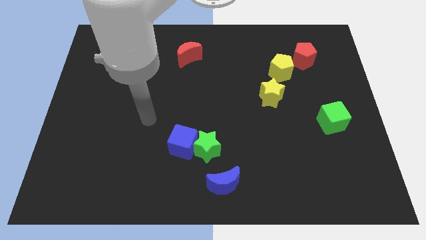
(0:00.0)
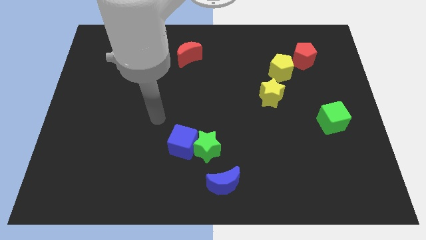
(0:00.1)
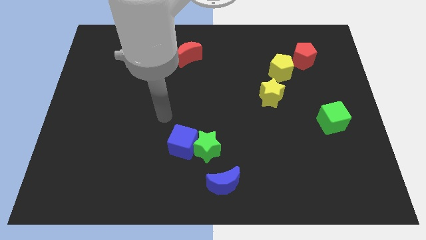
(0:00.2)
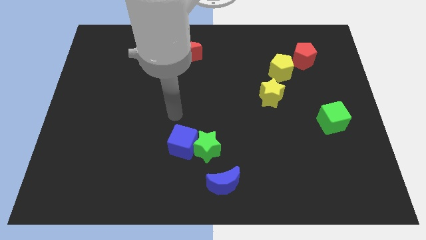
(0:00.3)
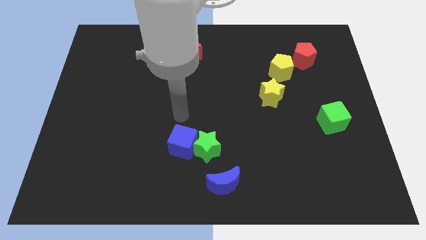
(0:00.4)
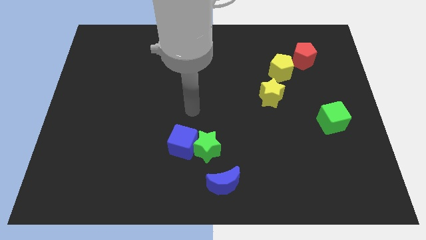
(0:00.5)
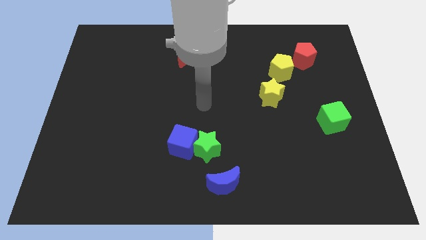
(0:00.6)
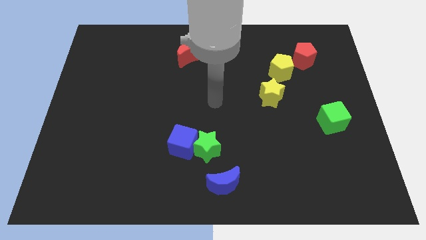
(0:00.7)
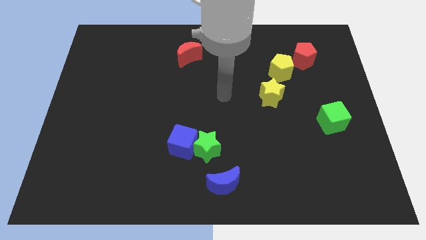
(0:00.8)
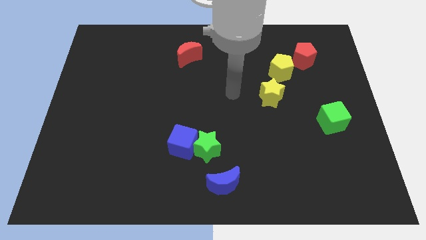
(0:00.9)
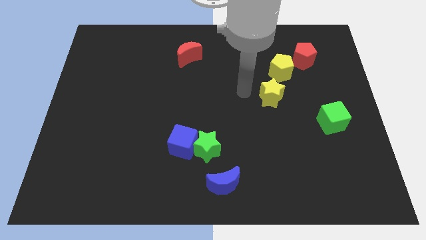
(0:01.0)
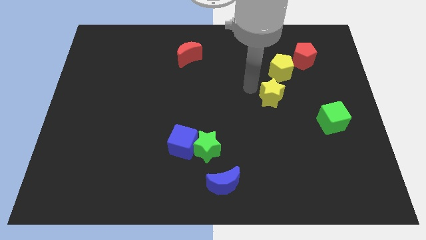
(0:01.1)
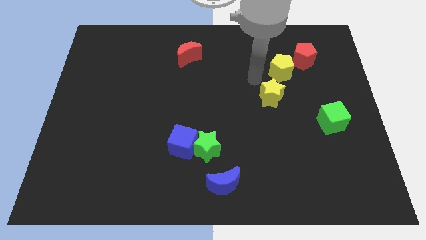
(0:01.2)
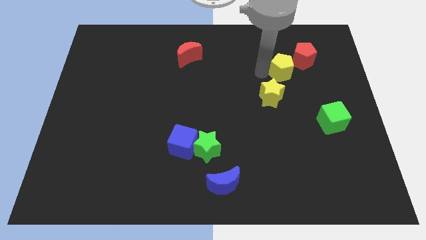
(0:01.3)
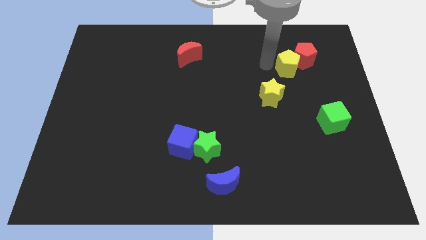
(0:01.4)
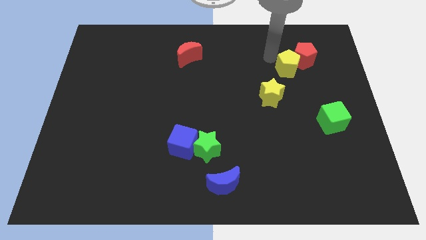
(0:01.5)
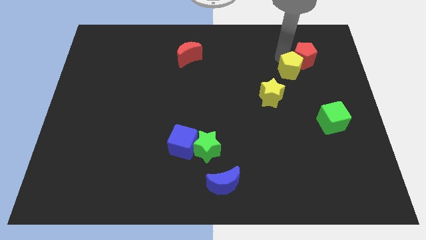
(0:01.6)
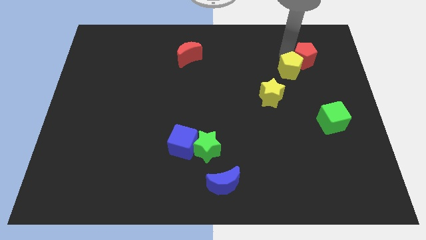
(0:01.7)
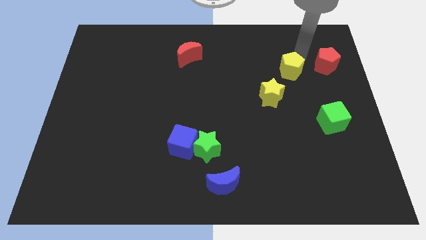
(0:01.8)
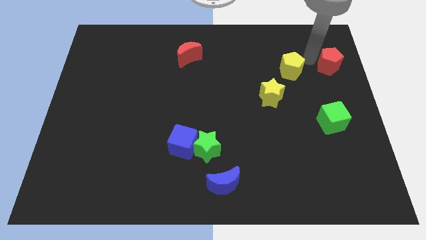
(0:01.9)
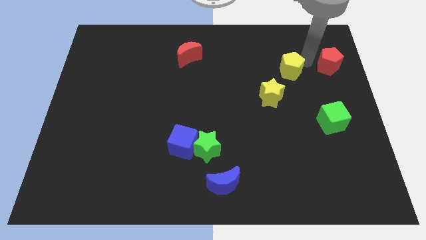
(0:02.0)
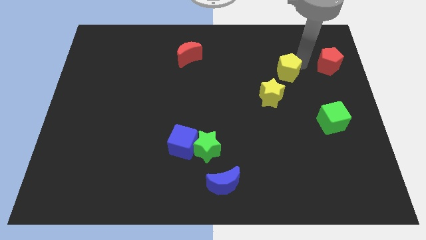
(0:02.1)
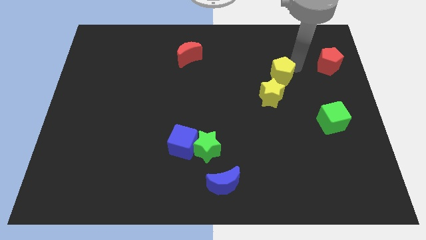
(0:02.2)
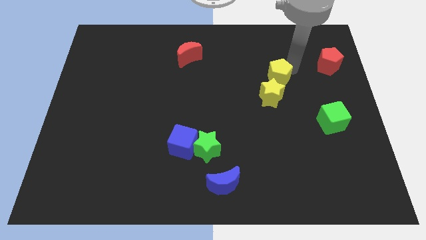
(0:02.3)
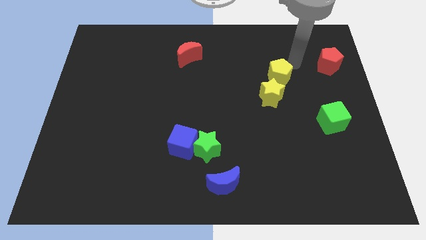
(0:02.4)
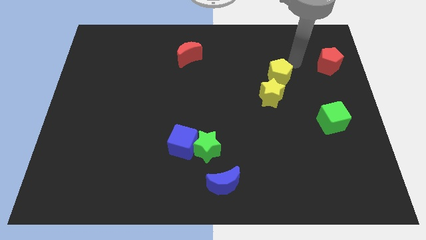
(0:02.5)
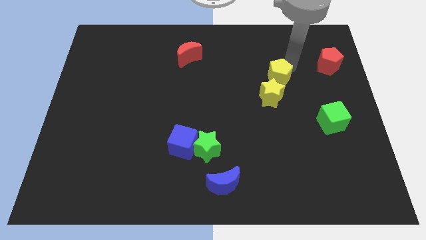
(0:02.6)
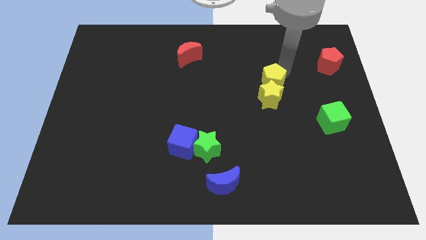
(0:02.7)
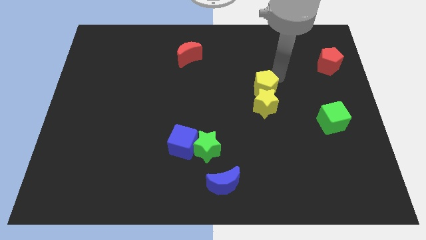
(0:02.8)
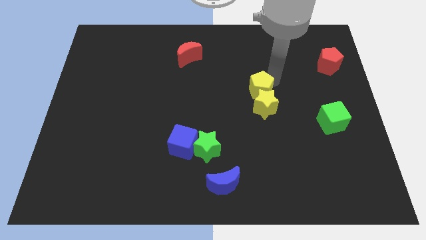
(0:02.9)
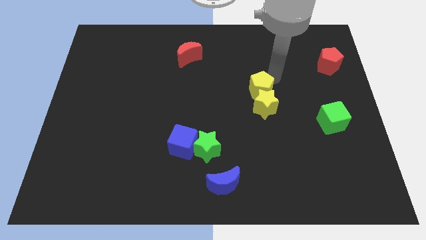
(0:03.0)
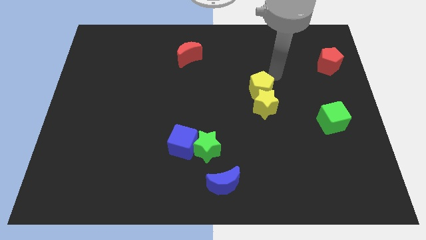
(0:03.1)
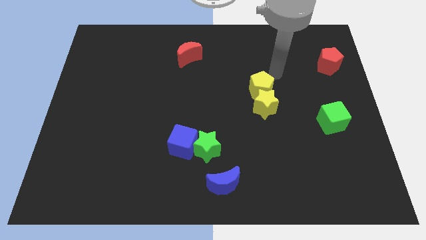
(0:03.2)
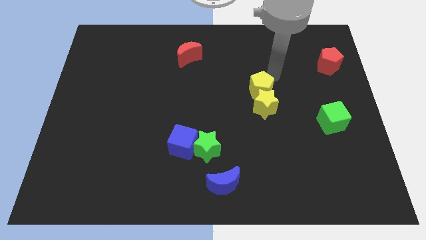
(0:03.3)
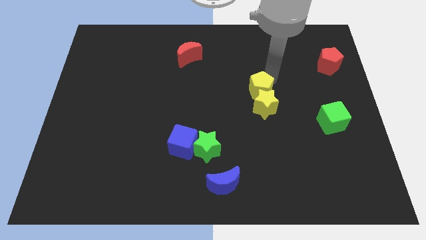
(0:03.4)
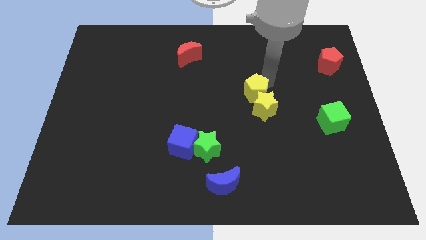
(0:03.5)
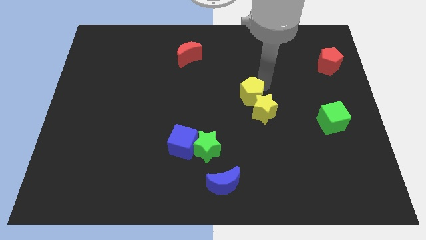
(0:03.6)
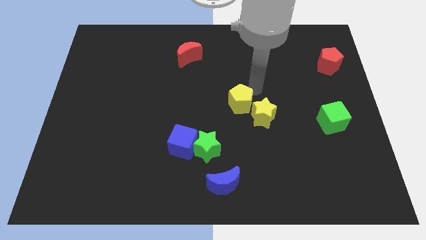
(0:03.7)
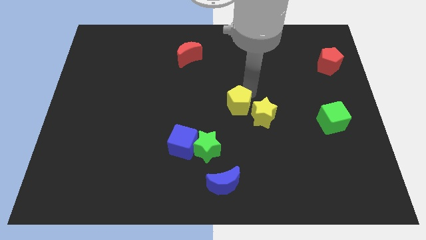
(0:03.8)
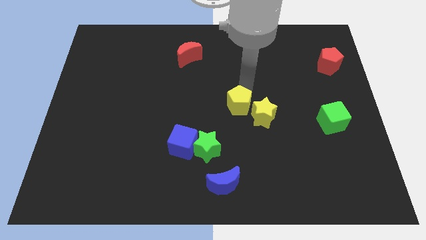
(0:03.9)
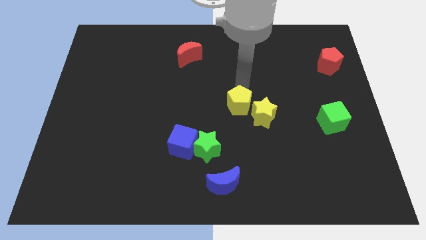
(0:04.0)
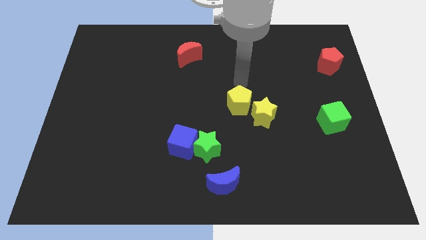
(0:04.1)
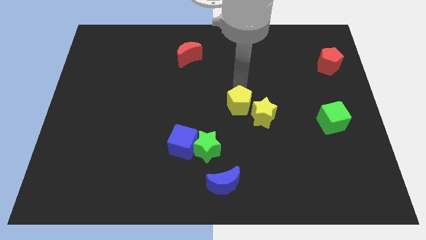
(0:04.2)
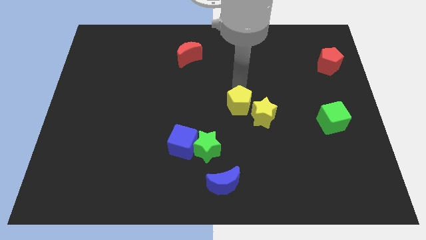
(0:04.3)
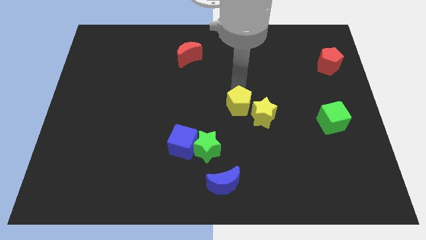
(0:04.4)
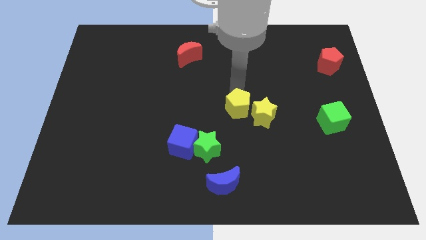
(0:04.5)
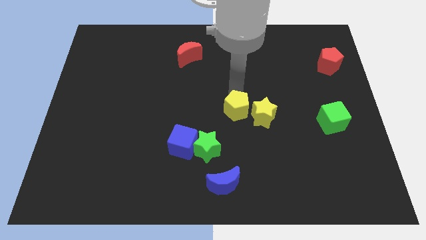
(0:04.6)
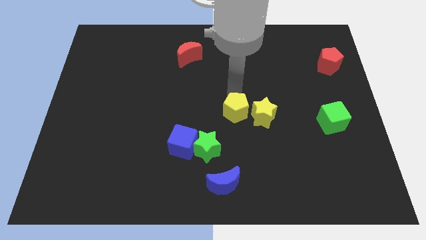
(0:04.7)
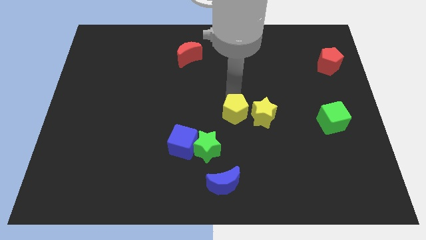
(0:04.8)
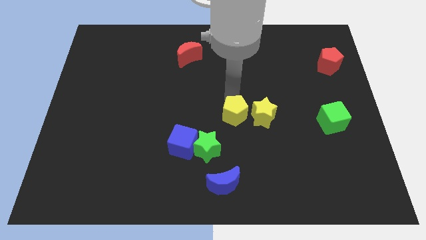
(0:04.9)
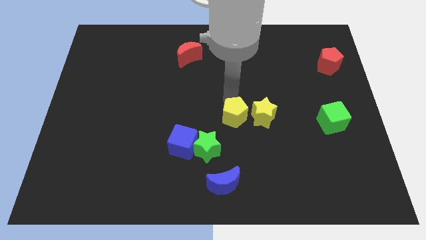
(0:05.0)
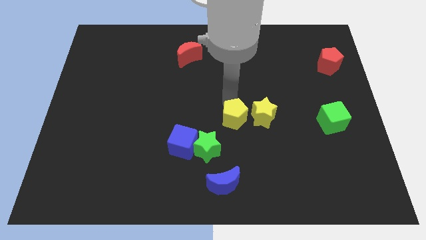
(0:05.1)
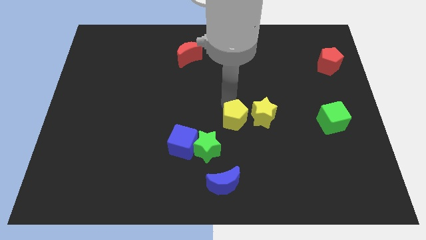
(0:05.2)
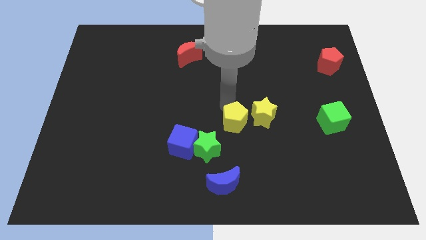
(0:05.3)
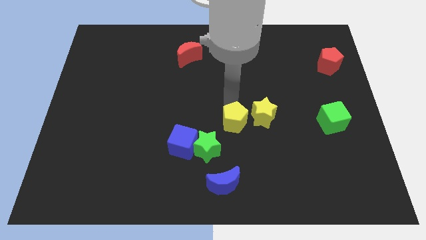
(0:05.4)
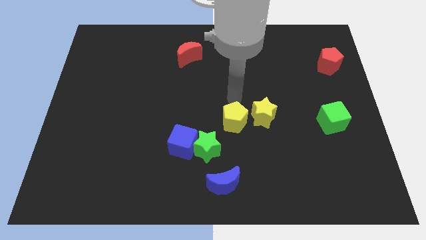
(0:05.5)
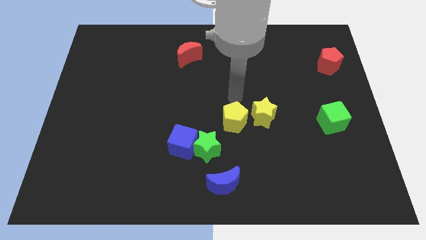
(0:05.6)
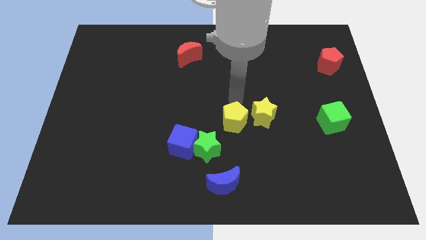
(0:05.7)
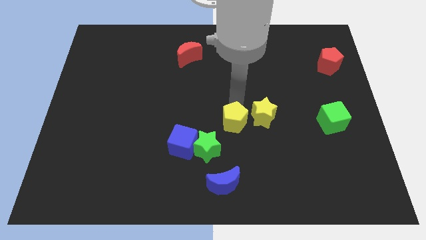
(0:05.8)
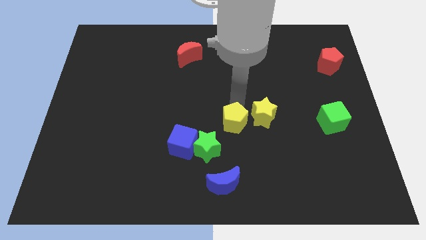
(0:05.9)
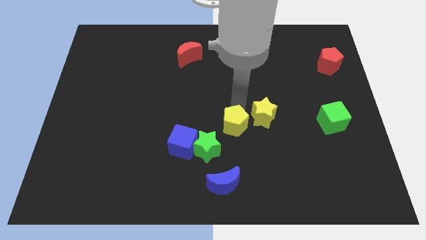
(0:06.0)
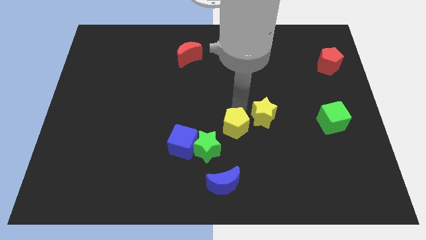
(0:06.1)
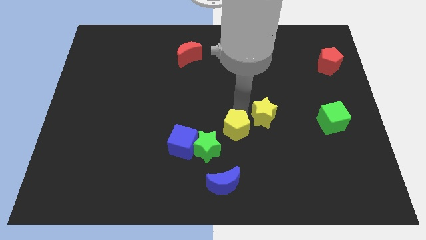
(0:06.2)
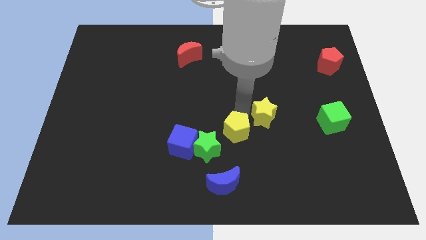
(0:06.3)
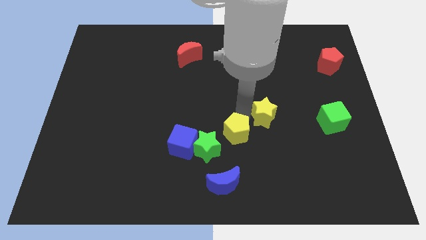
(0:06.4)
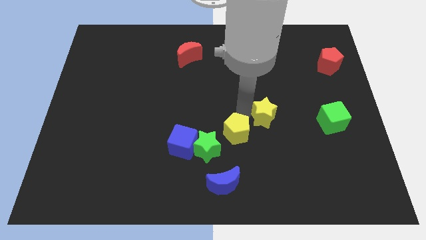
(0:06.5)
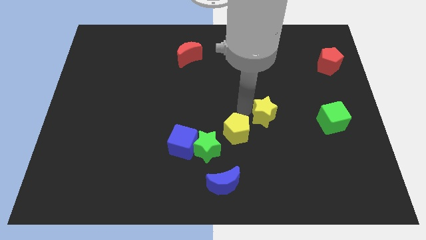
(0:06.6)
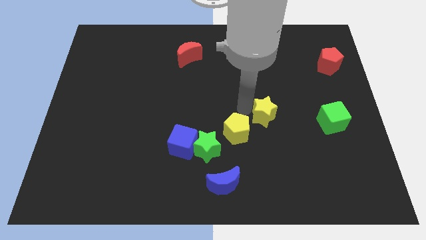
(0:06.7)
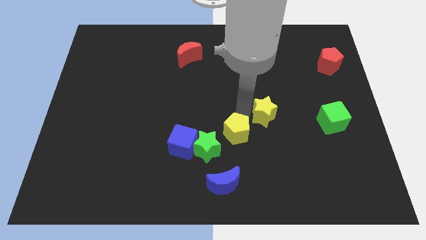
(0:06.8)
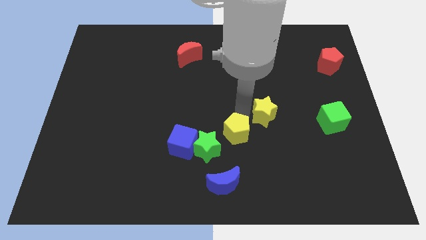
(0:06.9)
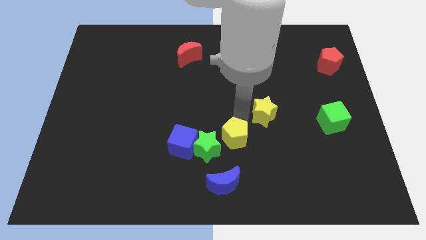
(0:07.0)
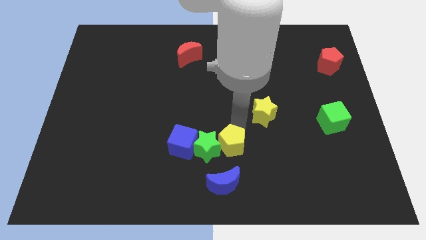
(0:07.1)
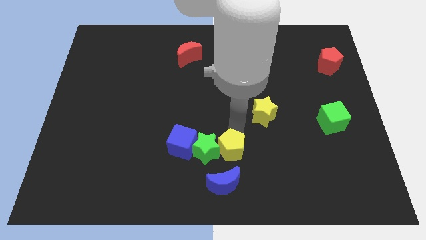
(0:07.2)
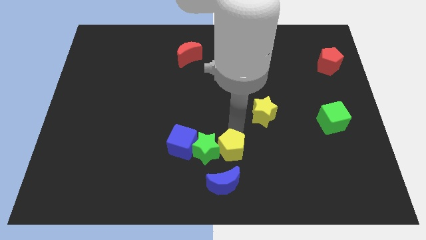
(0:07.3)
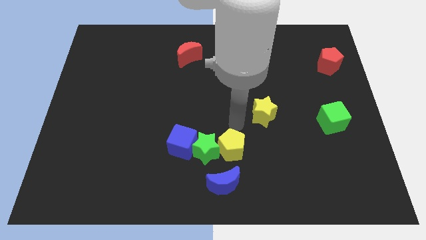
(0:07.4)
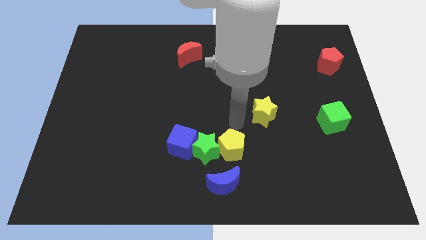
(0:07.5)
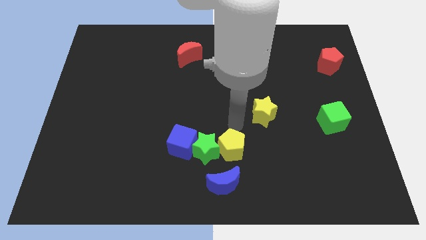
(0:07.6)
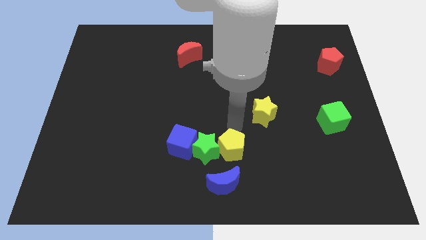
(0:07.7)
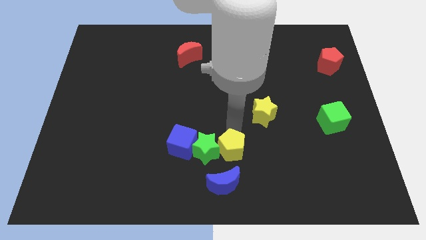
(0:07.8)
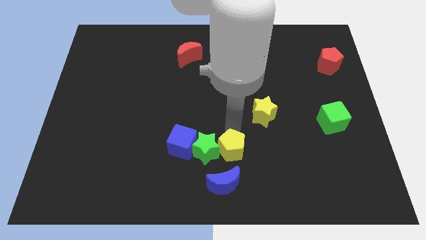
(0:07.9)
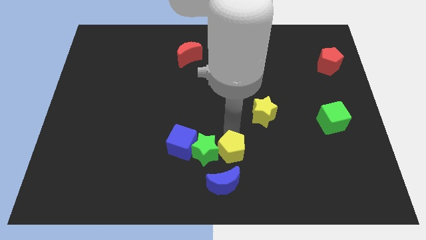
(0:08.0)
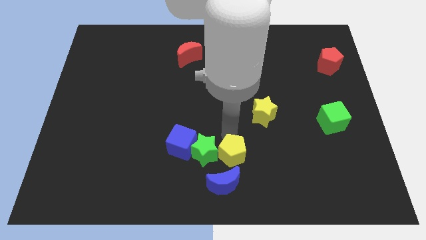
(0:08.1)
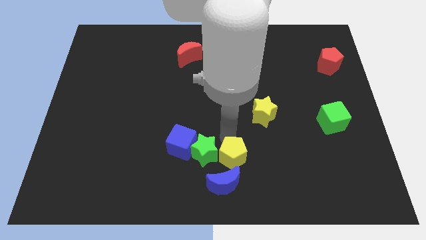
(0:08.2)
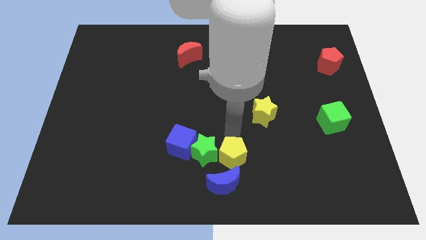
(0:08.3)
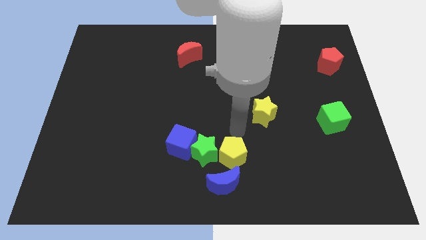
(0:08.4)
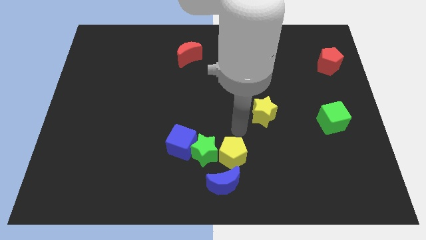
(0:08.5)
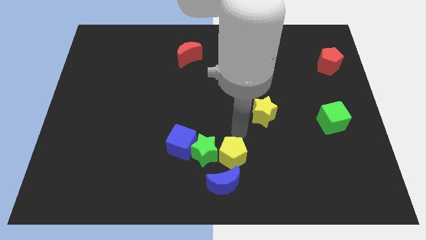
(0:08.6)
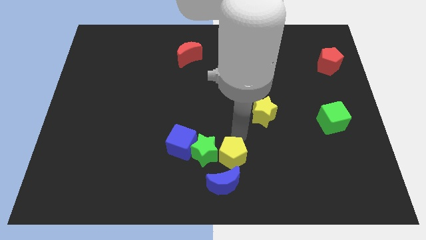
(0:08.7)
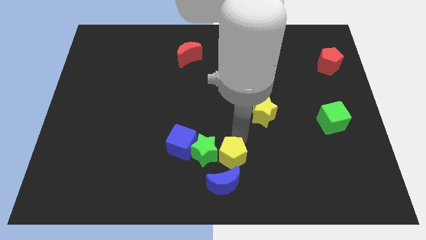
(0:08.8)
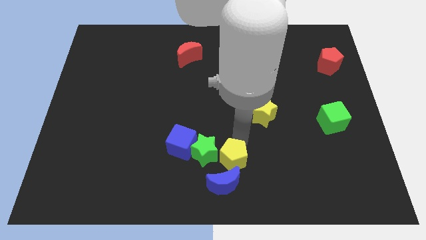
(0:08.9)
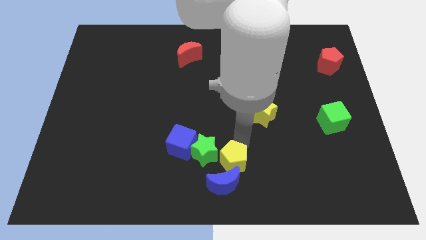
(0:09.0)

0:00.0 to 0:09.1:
push the yellow pentagon towards the blue moon
